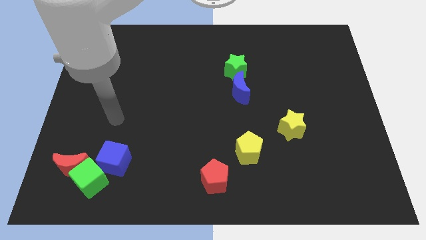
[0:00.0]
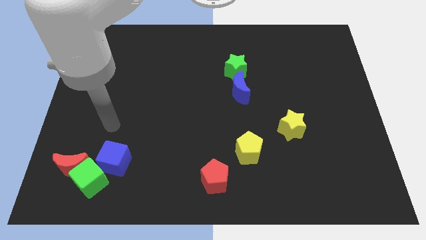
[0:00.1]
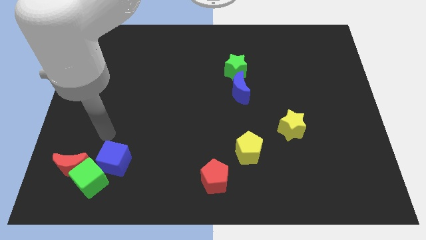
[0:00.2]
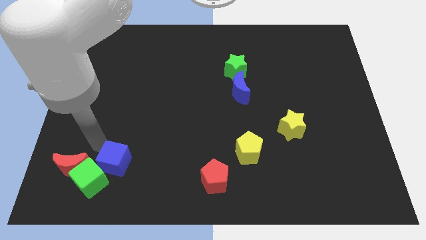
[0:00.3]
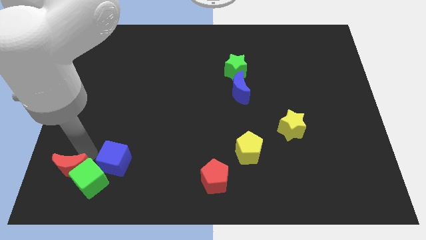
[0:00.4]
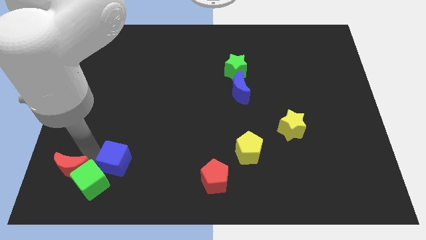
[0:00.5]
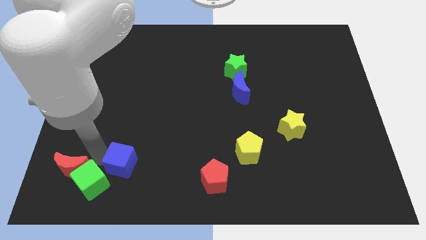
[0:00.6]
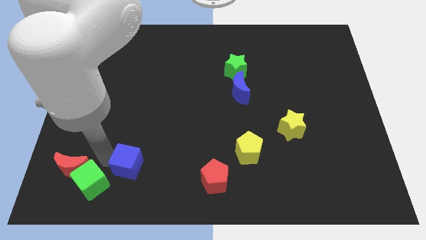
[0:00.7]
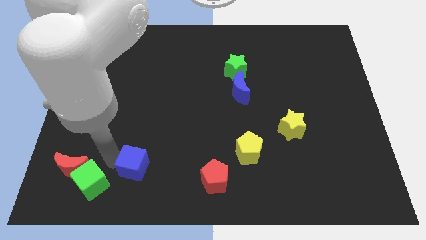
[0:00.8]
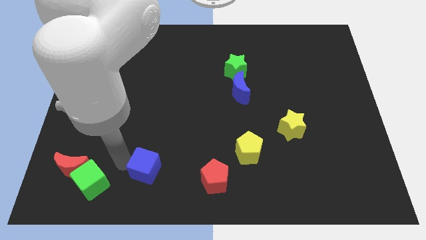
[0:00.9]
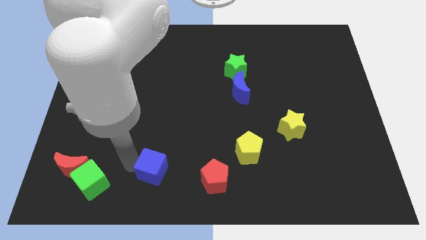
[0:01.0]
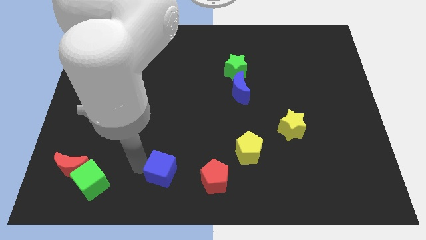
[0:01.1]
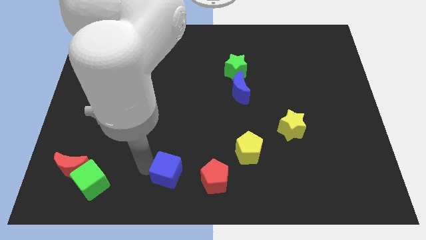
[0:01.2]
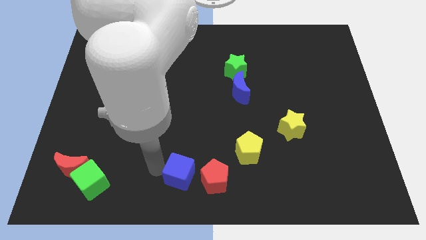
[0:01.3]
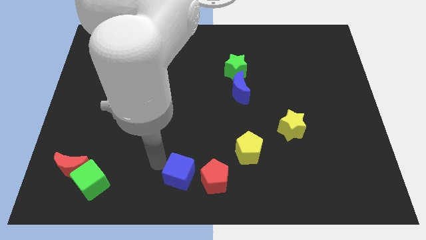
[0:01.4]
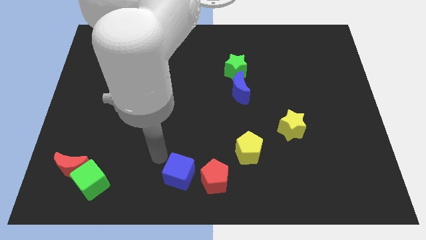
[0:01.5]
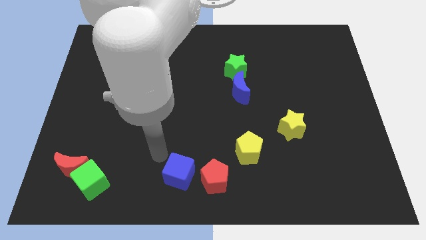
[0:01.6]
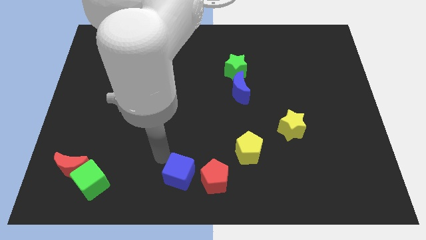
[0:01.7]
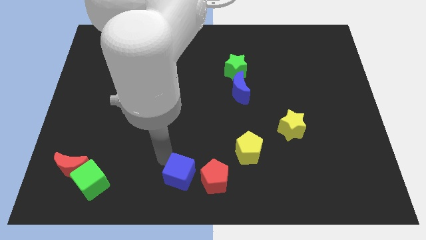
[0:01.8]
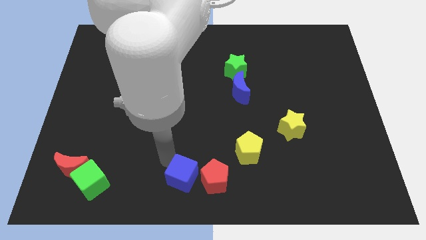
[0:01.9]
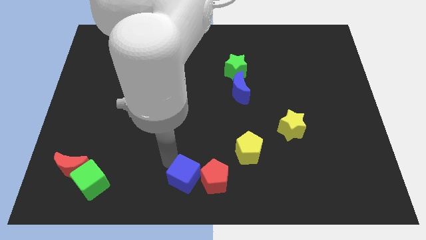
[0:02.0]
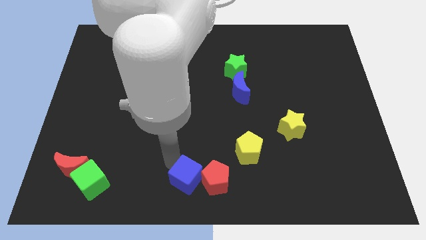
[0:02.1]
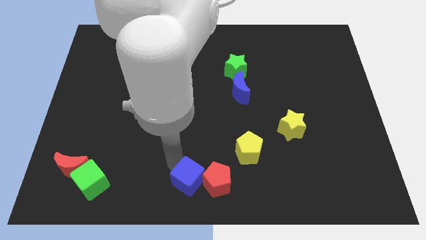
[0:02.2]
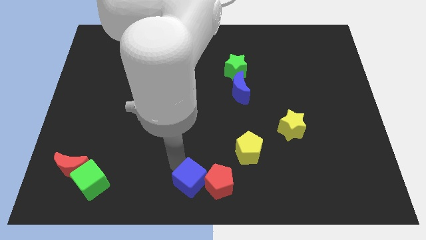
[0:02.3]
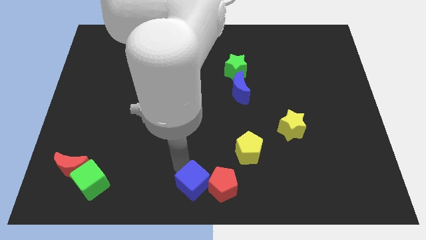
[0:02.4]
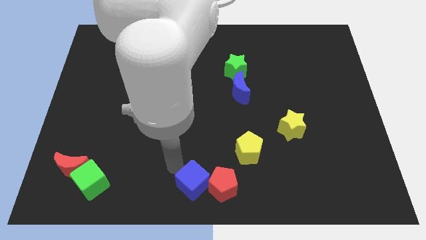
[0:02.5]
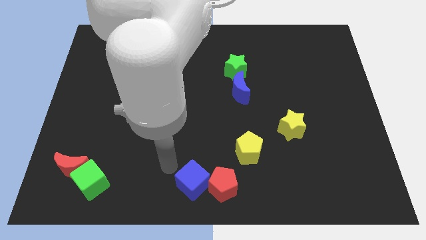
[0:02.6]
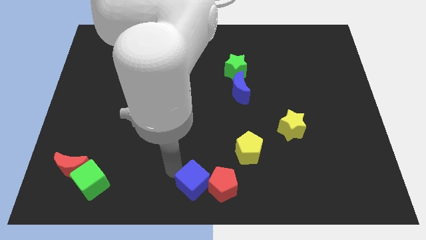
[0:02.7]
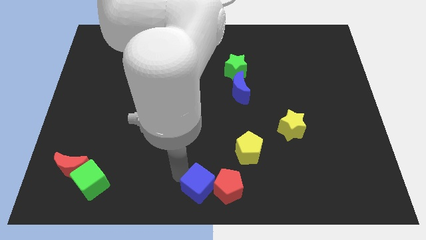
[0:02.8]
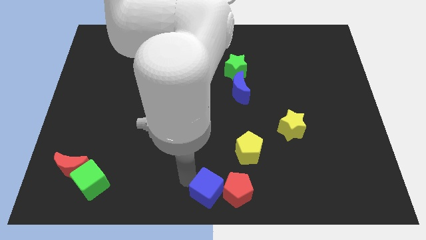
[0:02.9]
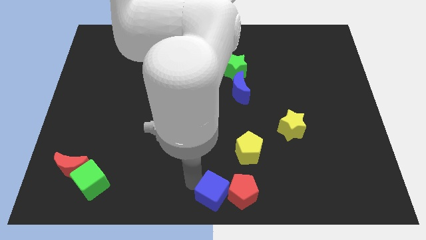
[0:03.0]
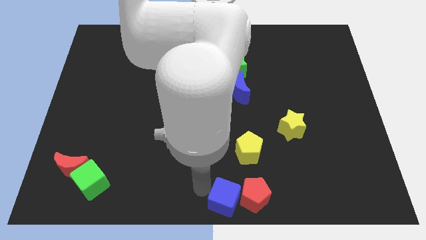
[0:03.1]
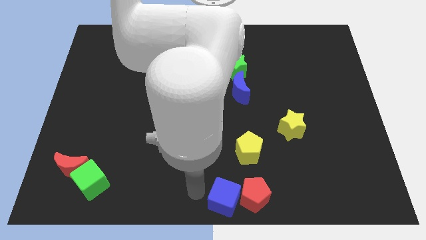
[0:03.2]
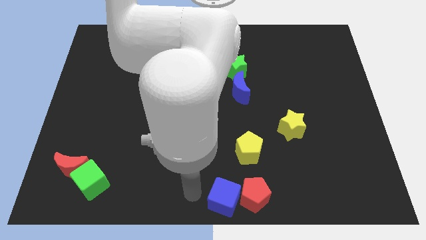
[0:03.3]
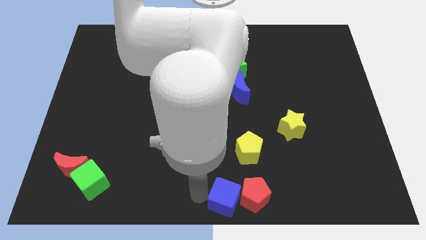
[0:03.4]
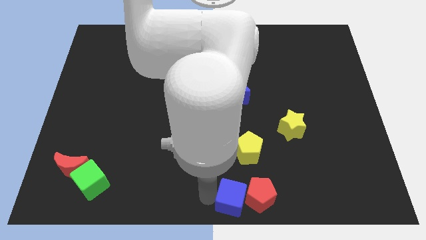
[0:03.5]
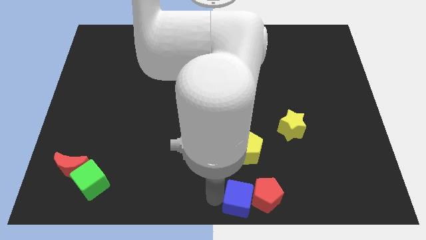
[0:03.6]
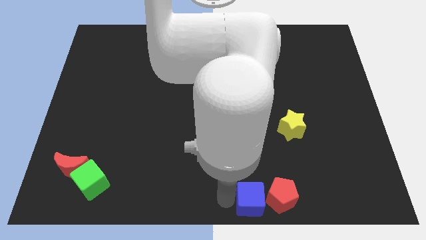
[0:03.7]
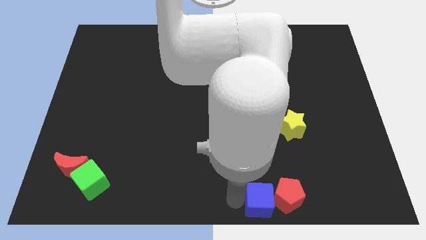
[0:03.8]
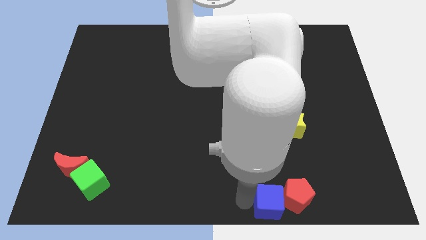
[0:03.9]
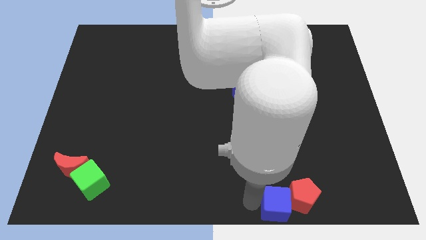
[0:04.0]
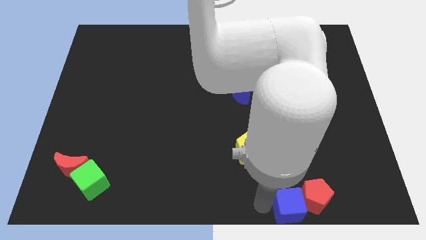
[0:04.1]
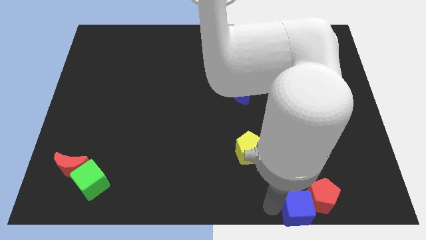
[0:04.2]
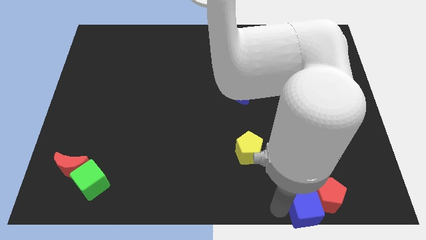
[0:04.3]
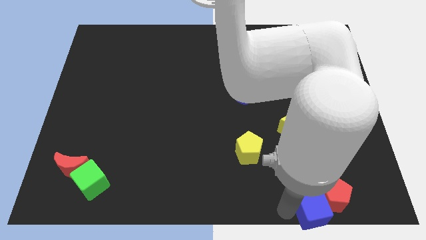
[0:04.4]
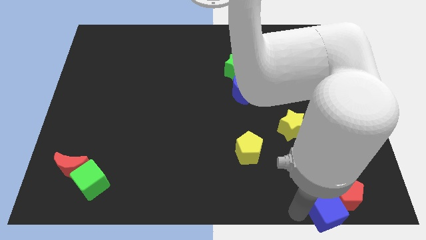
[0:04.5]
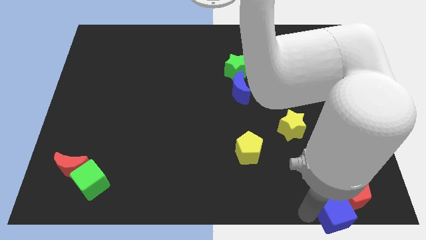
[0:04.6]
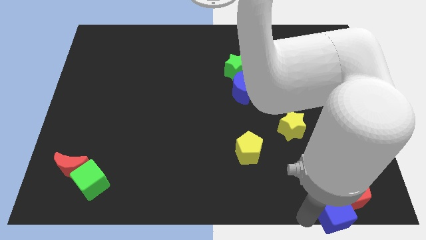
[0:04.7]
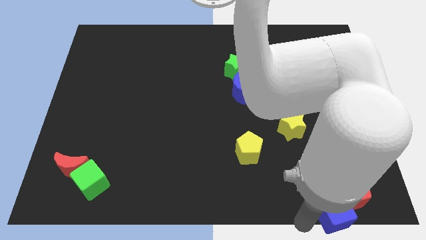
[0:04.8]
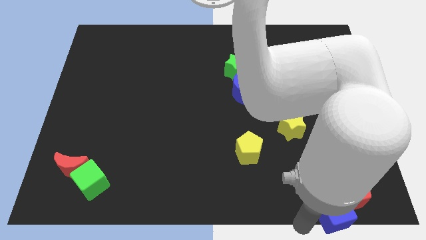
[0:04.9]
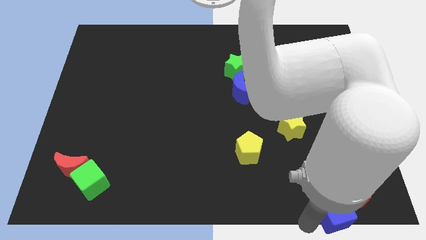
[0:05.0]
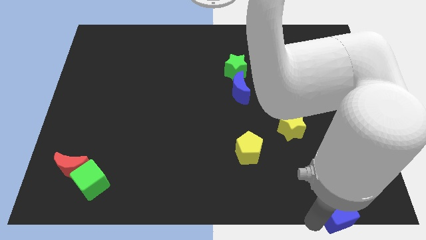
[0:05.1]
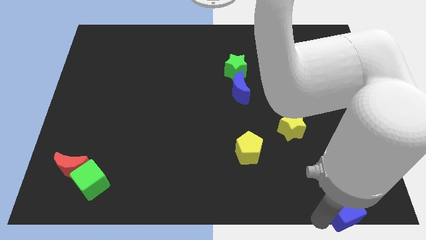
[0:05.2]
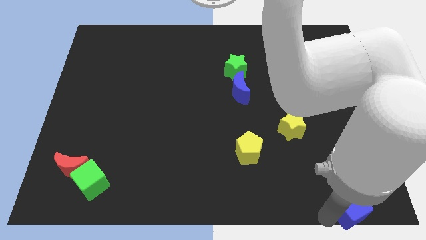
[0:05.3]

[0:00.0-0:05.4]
move the blue cube to the lower right corner

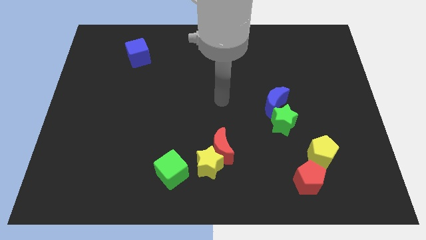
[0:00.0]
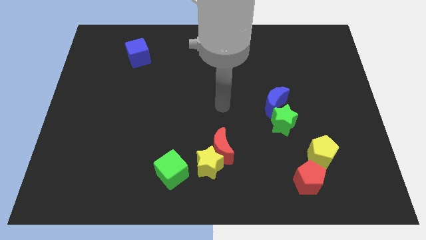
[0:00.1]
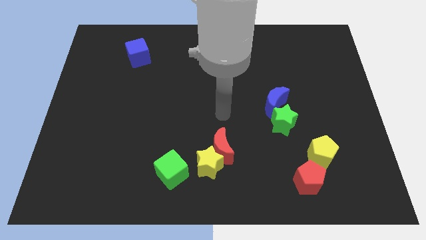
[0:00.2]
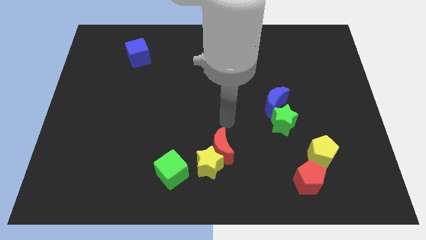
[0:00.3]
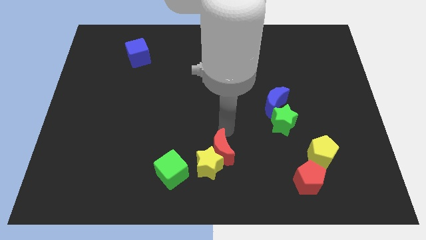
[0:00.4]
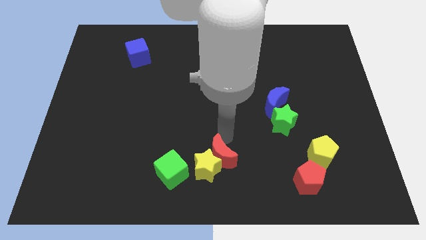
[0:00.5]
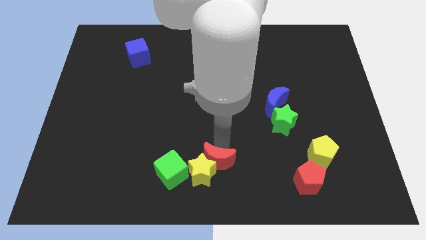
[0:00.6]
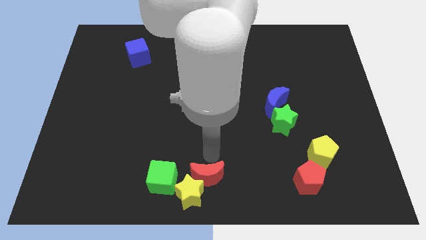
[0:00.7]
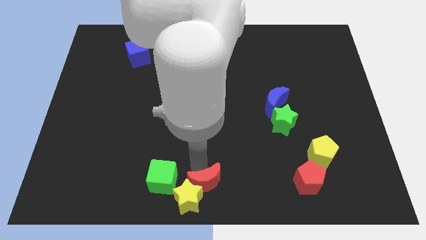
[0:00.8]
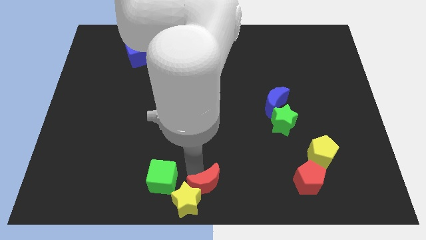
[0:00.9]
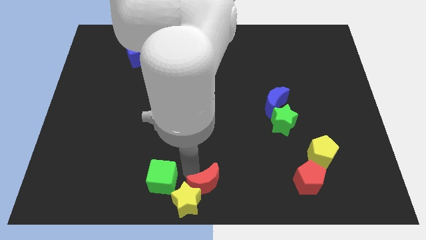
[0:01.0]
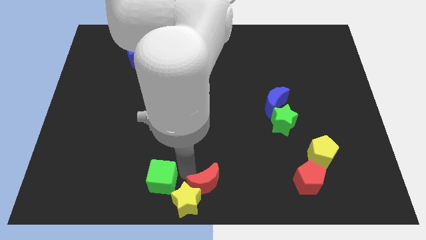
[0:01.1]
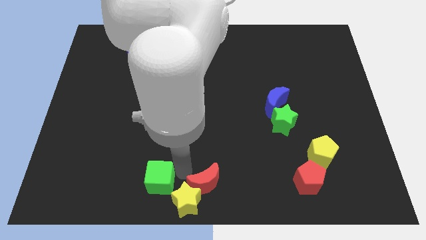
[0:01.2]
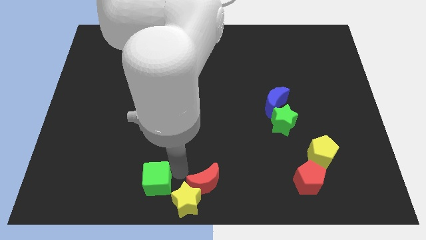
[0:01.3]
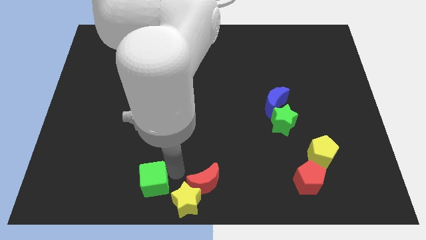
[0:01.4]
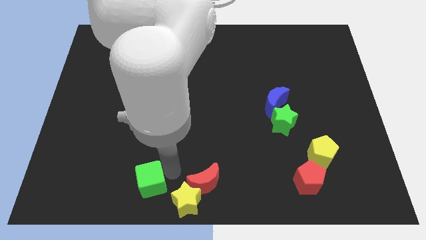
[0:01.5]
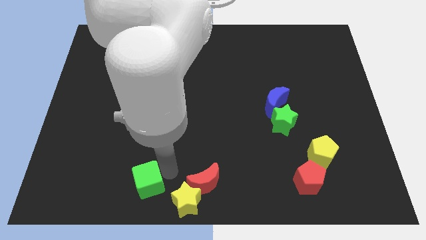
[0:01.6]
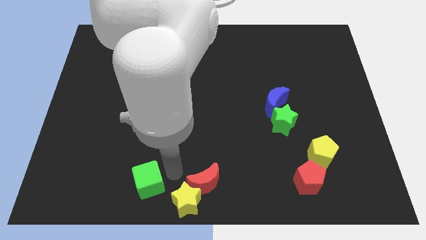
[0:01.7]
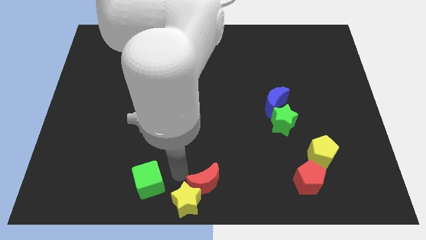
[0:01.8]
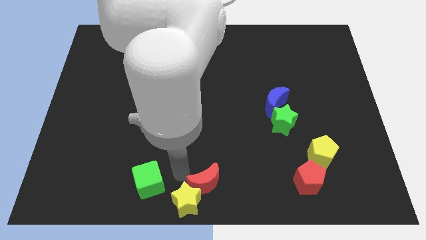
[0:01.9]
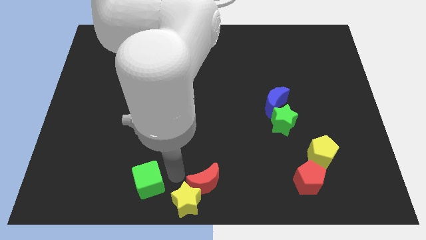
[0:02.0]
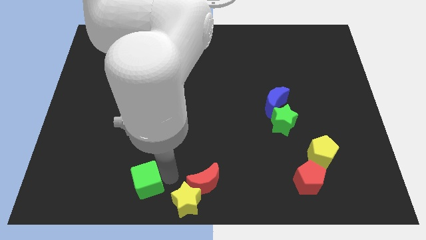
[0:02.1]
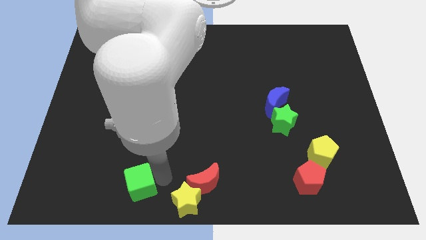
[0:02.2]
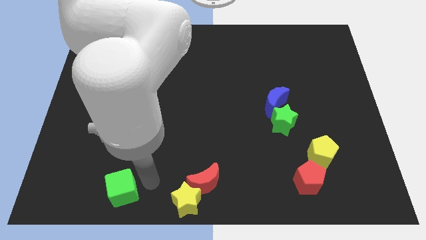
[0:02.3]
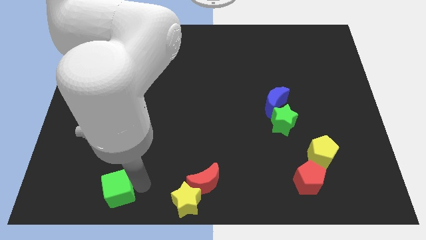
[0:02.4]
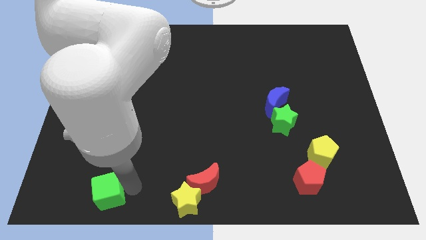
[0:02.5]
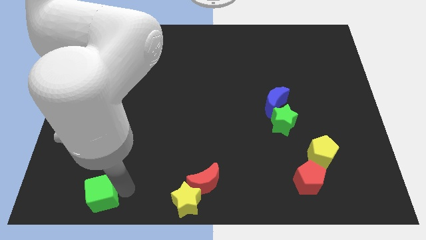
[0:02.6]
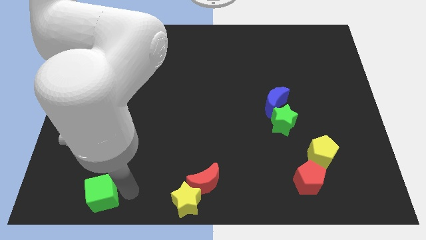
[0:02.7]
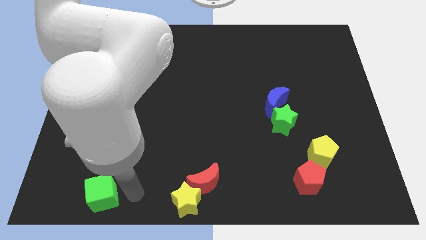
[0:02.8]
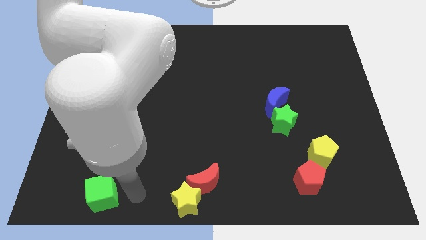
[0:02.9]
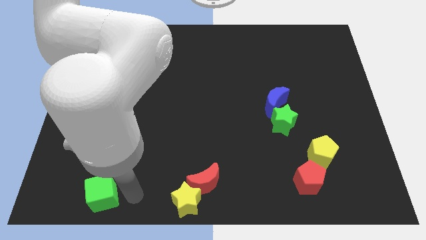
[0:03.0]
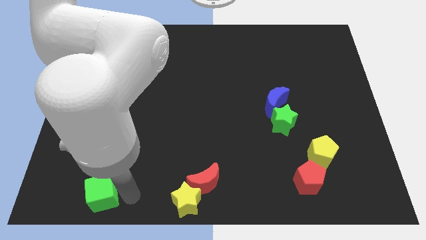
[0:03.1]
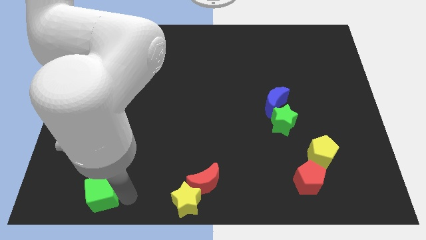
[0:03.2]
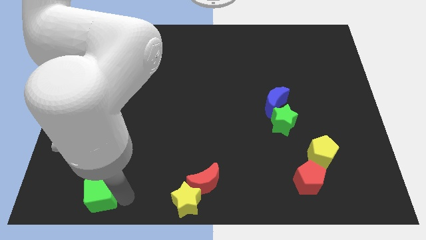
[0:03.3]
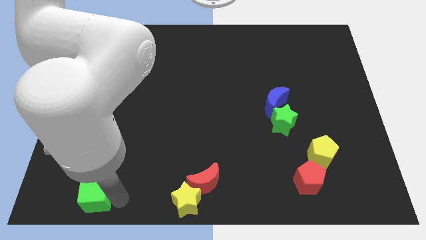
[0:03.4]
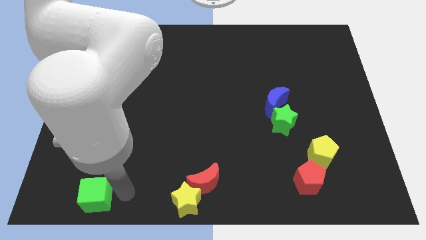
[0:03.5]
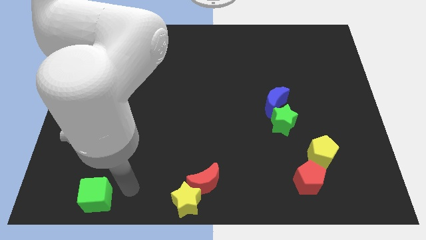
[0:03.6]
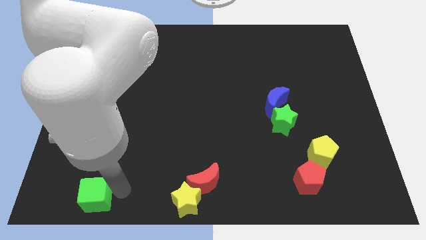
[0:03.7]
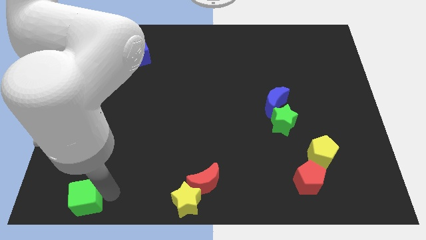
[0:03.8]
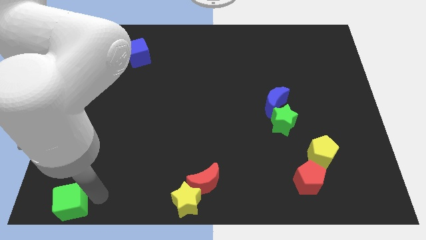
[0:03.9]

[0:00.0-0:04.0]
move the green cube to the bottom left
